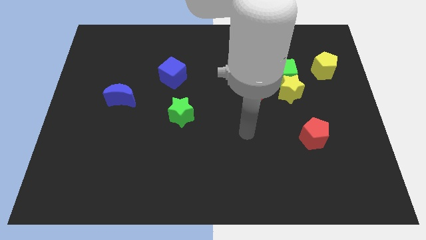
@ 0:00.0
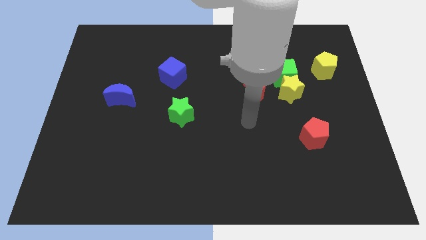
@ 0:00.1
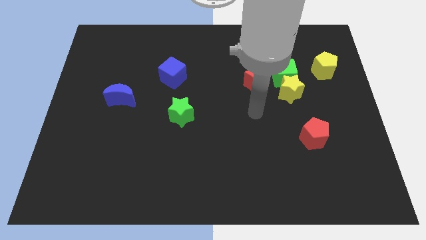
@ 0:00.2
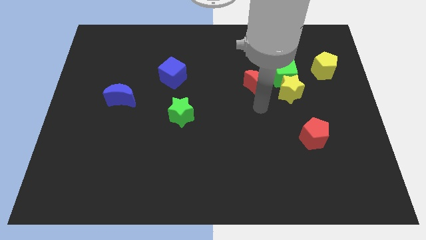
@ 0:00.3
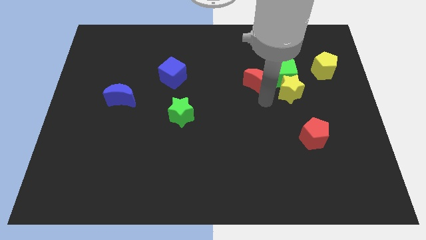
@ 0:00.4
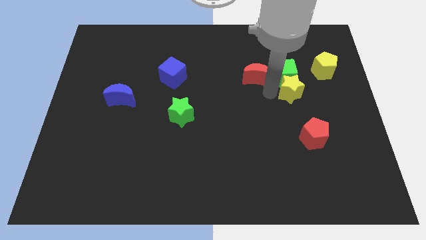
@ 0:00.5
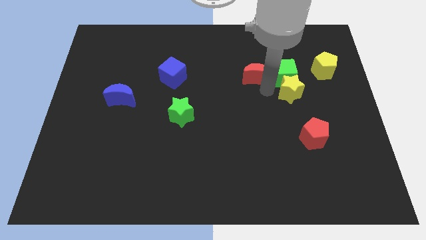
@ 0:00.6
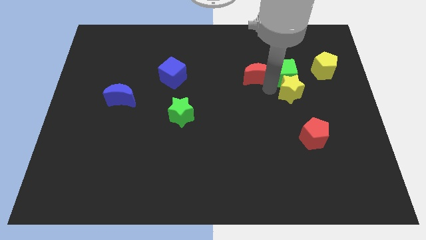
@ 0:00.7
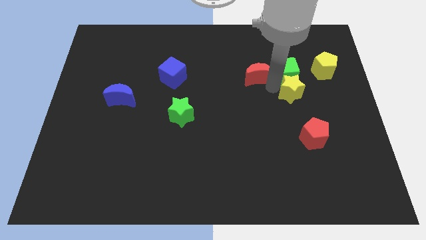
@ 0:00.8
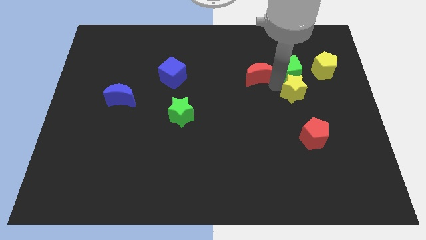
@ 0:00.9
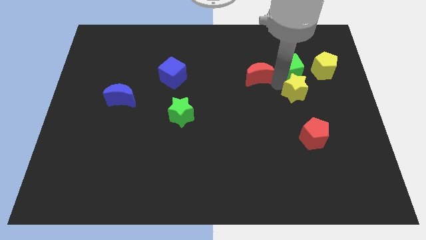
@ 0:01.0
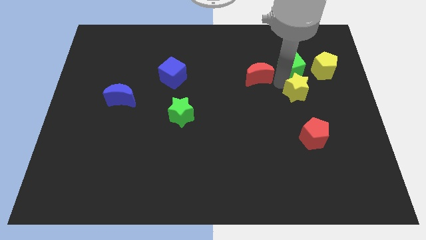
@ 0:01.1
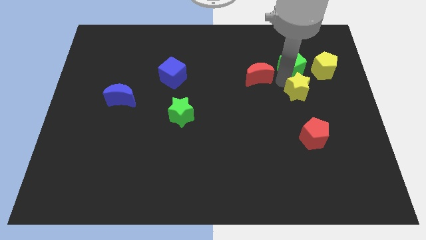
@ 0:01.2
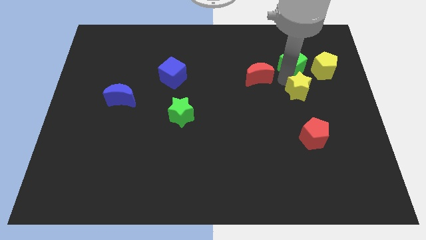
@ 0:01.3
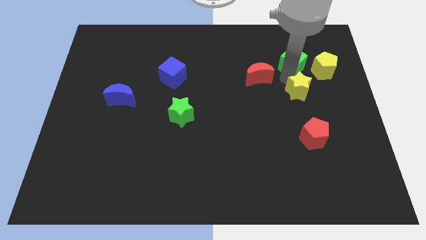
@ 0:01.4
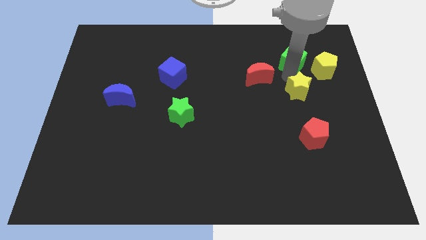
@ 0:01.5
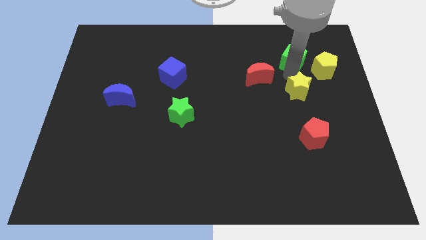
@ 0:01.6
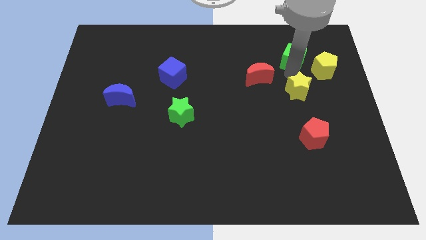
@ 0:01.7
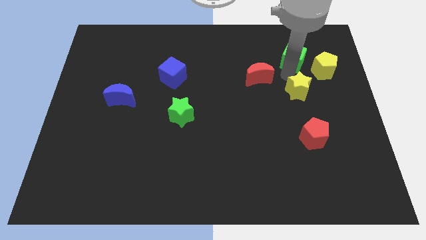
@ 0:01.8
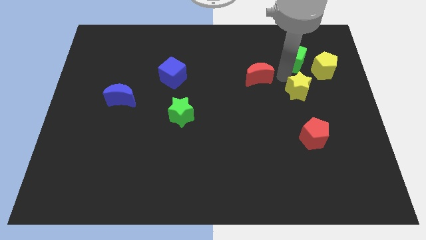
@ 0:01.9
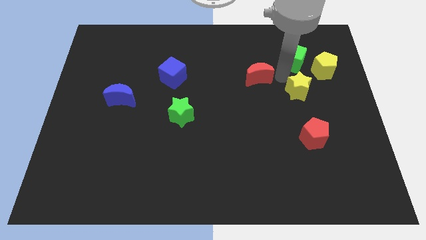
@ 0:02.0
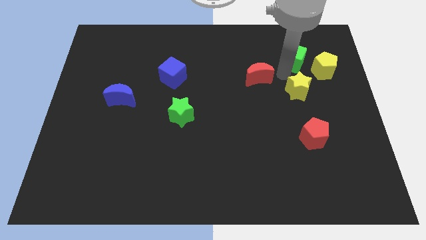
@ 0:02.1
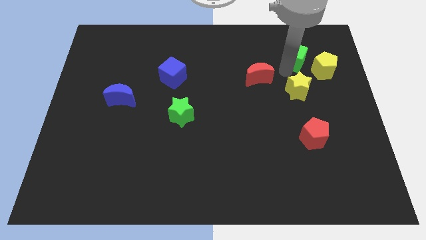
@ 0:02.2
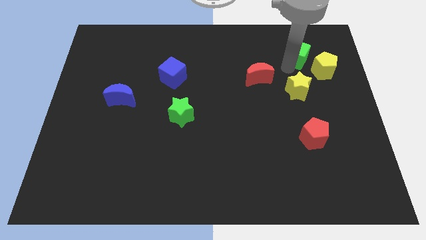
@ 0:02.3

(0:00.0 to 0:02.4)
move the green cube away from the yellow star and red moon

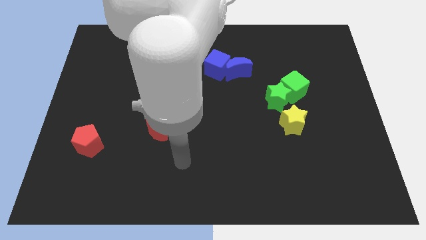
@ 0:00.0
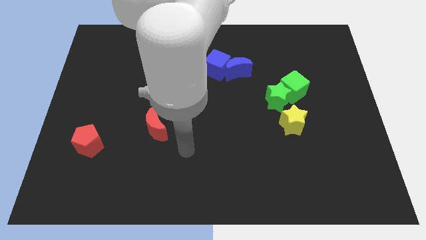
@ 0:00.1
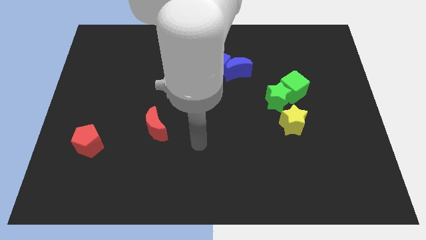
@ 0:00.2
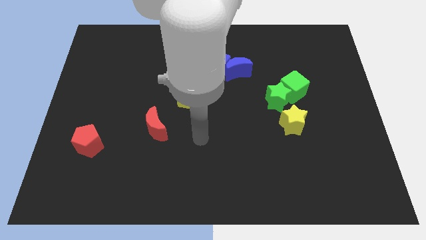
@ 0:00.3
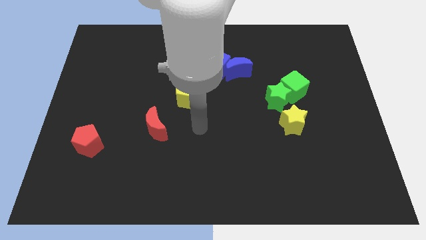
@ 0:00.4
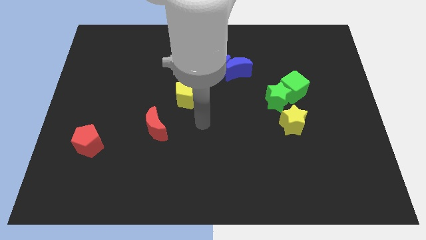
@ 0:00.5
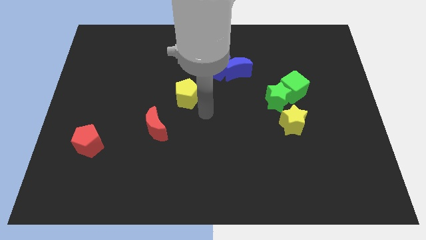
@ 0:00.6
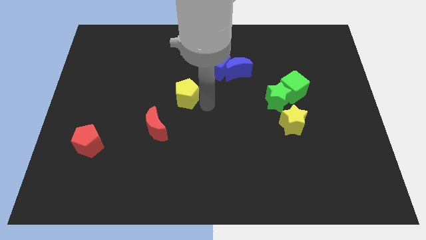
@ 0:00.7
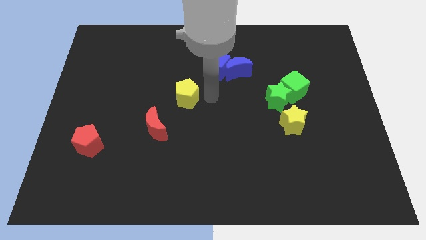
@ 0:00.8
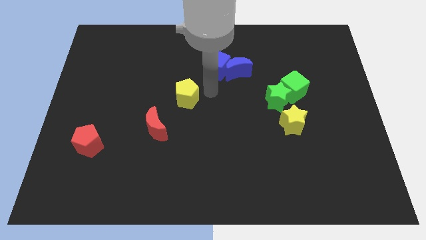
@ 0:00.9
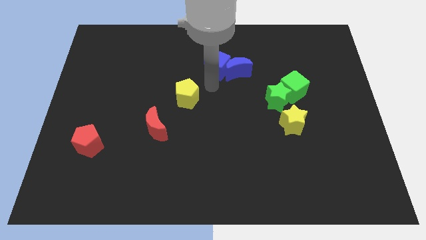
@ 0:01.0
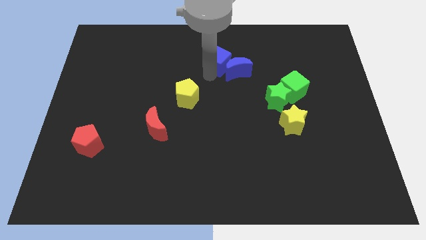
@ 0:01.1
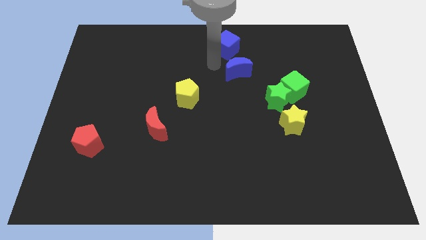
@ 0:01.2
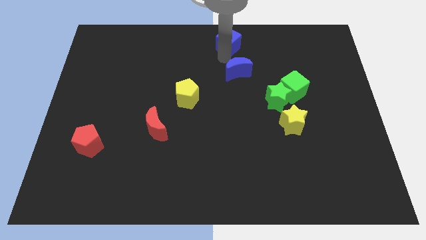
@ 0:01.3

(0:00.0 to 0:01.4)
move the blue moon away from the blue cube

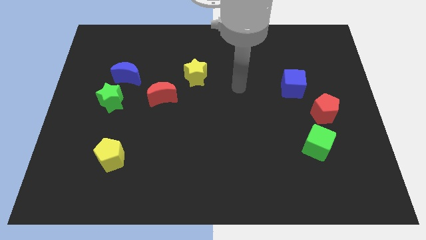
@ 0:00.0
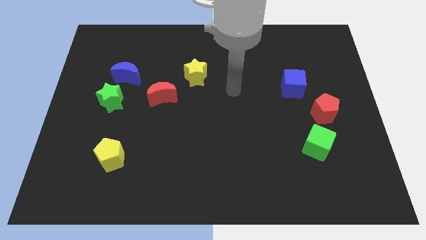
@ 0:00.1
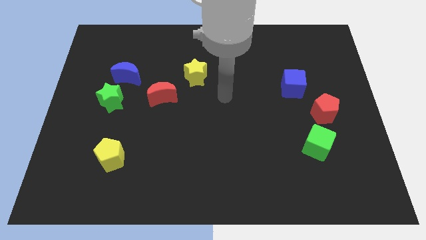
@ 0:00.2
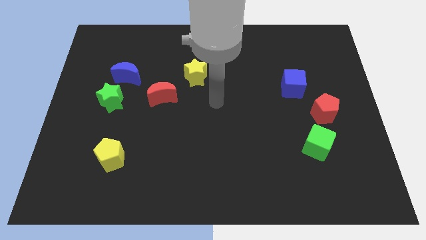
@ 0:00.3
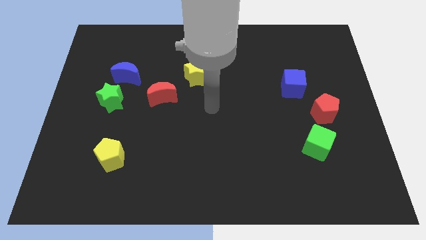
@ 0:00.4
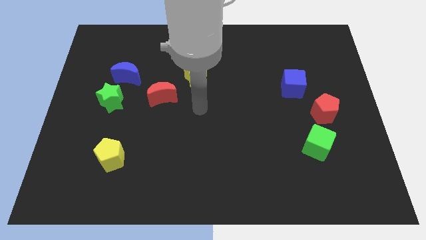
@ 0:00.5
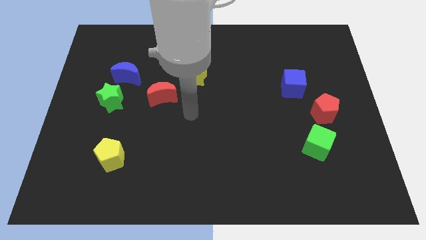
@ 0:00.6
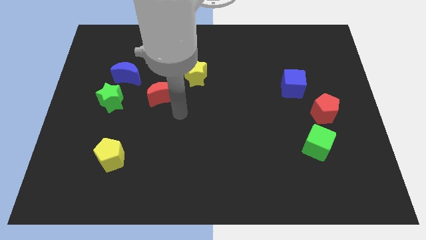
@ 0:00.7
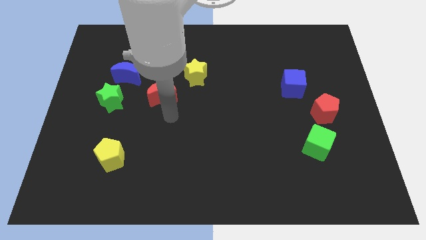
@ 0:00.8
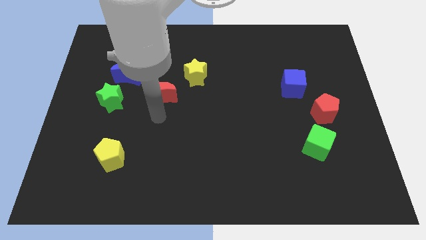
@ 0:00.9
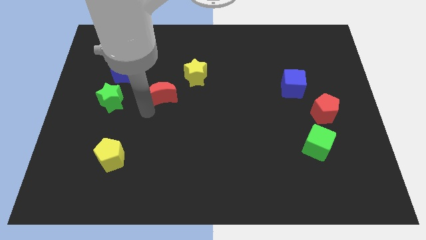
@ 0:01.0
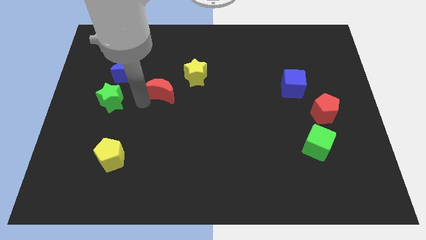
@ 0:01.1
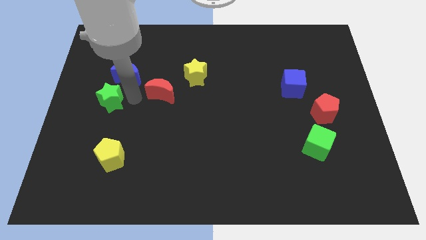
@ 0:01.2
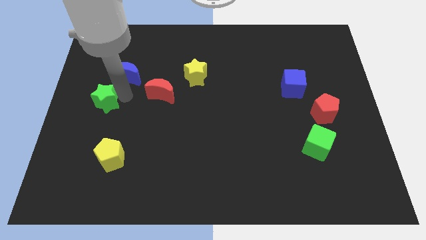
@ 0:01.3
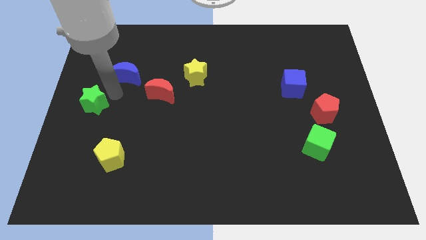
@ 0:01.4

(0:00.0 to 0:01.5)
pull the blue moon apart from the green star

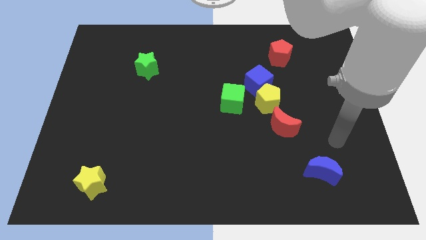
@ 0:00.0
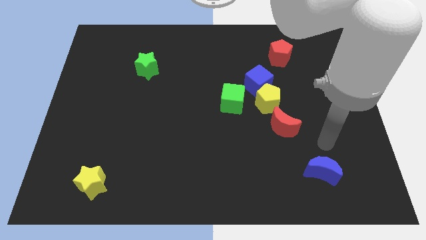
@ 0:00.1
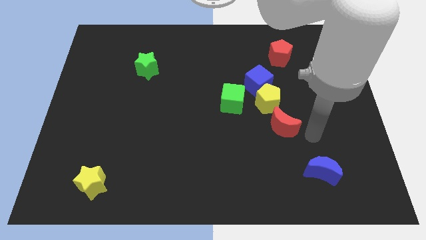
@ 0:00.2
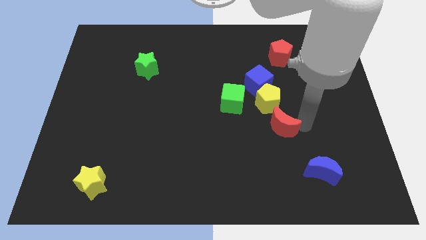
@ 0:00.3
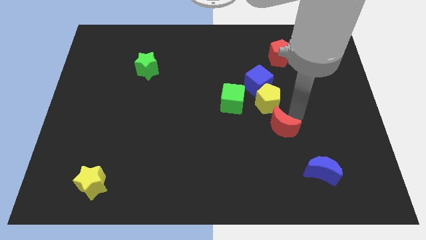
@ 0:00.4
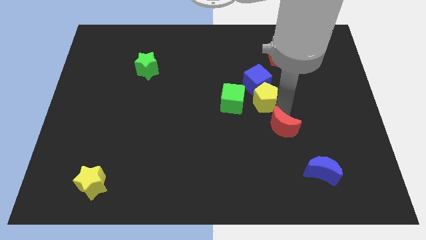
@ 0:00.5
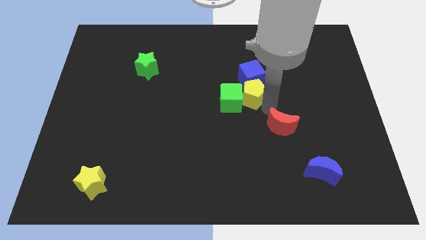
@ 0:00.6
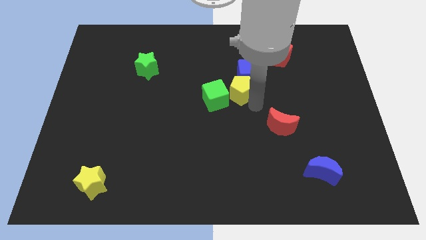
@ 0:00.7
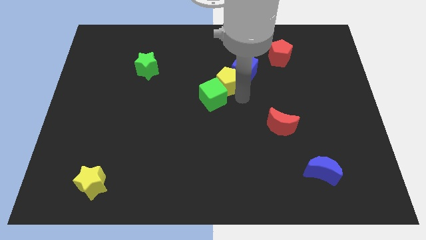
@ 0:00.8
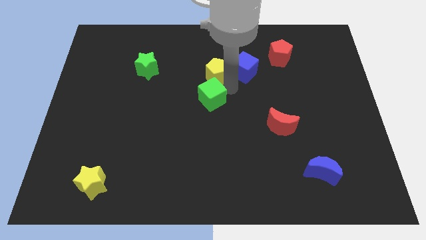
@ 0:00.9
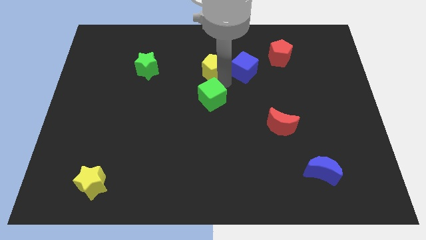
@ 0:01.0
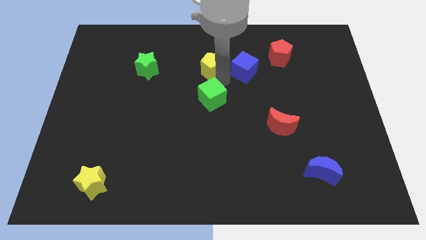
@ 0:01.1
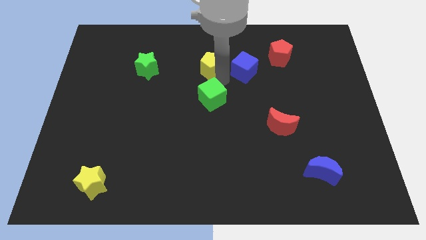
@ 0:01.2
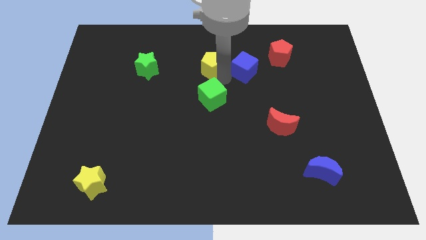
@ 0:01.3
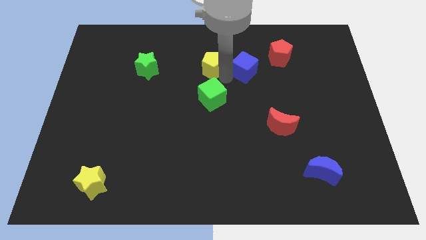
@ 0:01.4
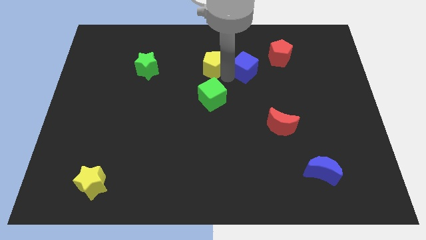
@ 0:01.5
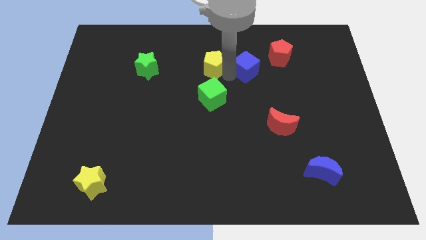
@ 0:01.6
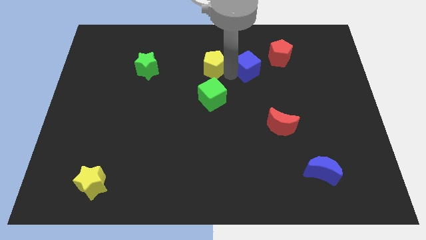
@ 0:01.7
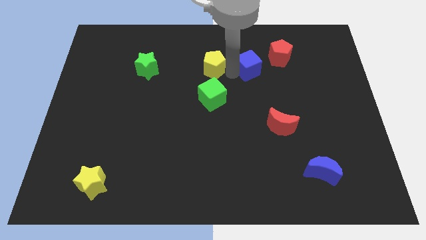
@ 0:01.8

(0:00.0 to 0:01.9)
move the blue cube away from the yellow pentagon and green cube

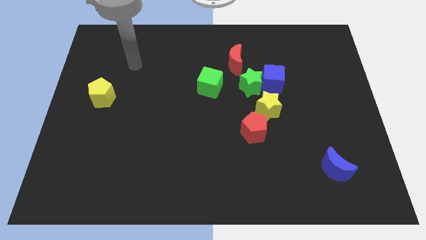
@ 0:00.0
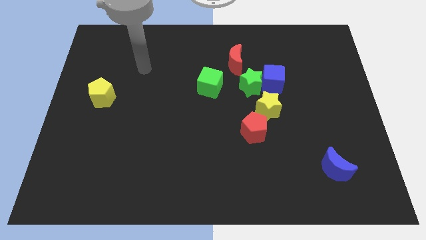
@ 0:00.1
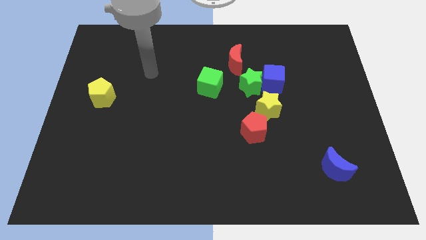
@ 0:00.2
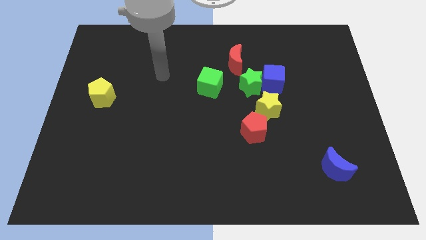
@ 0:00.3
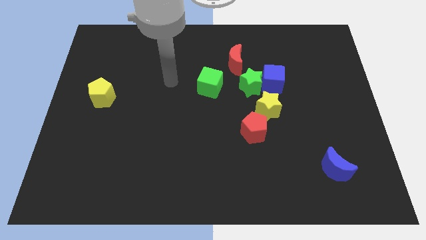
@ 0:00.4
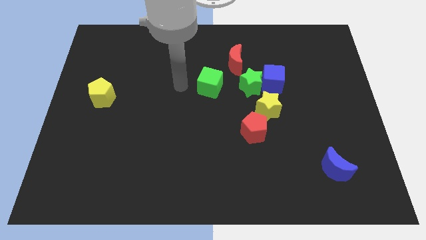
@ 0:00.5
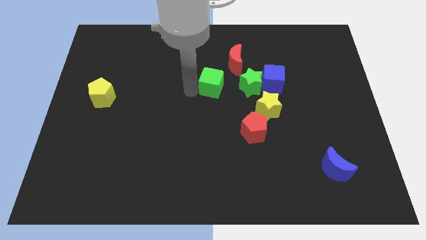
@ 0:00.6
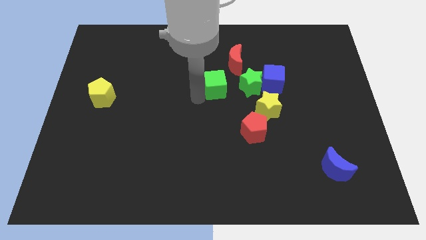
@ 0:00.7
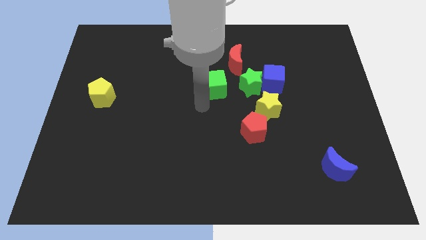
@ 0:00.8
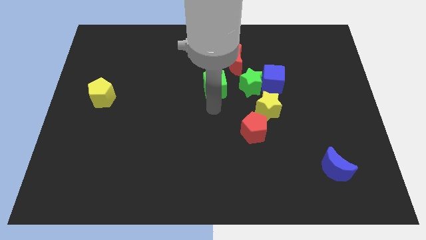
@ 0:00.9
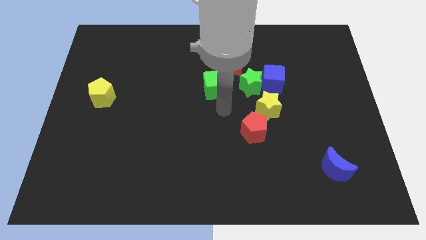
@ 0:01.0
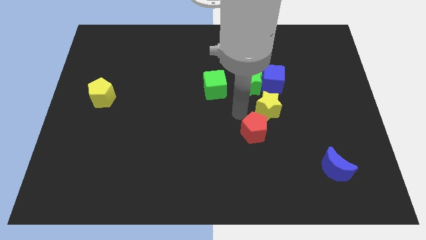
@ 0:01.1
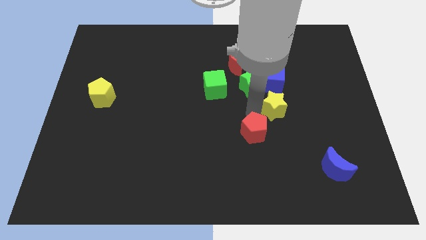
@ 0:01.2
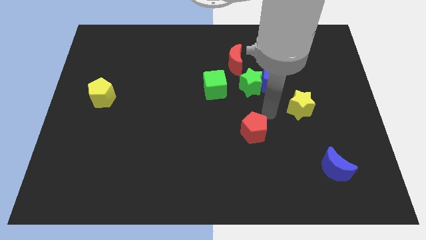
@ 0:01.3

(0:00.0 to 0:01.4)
move the red pentagon away from the yellow star

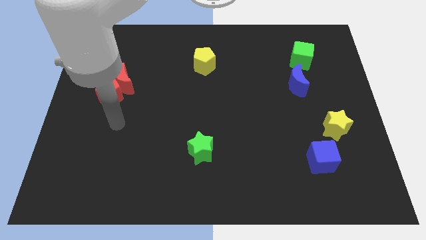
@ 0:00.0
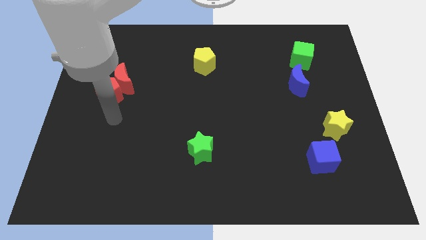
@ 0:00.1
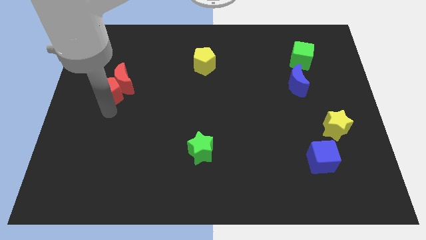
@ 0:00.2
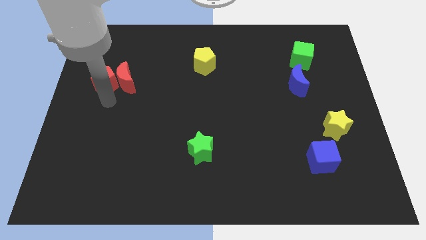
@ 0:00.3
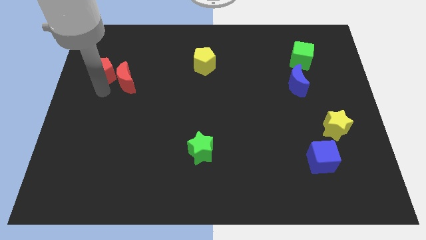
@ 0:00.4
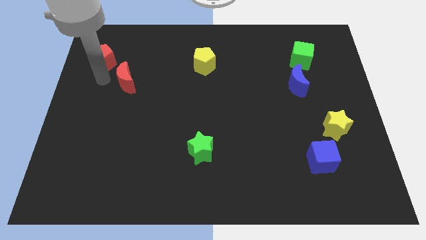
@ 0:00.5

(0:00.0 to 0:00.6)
pull the red moon apart from the red pentagon
